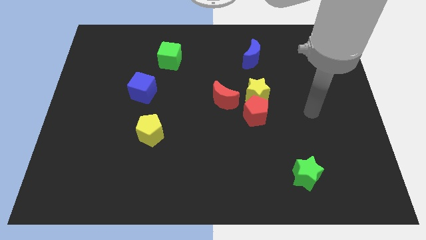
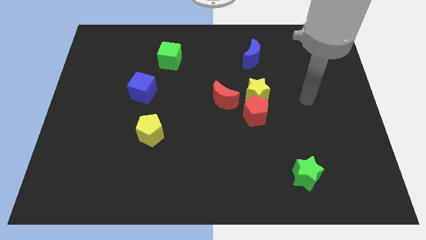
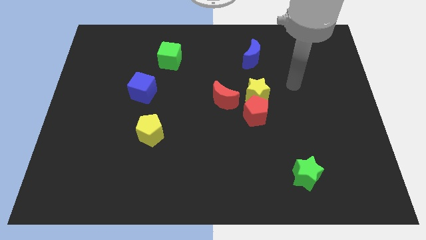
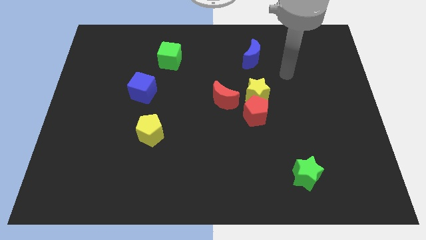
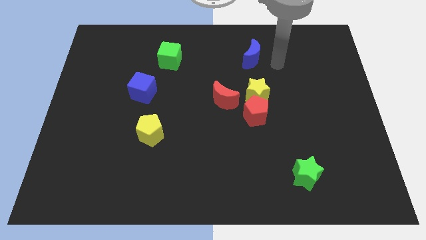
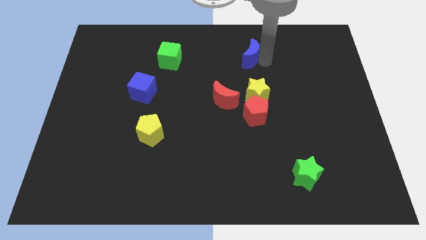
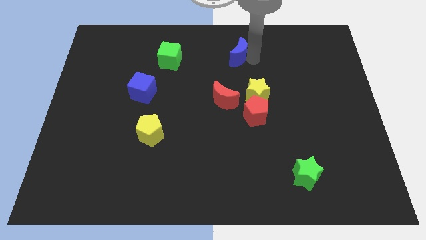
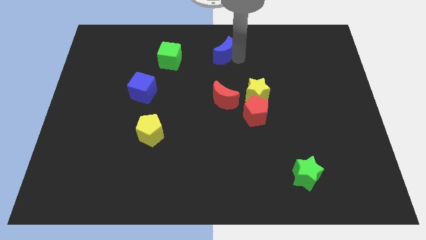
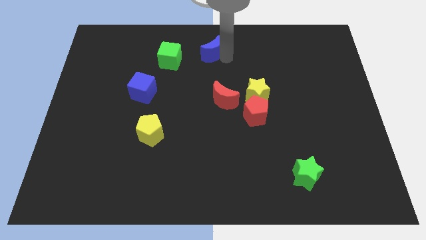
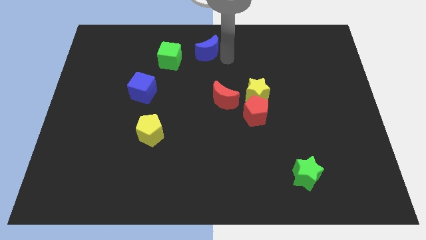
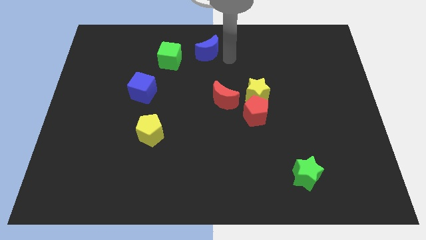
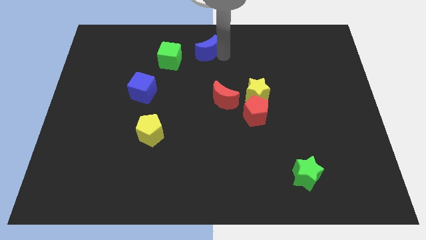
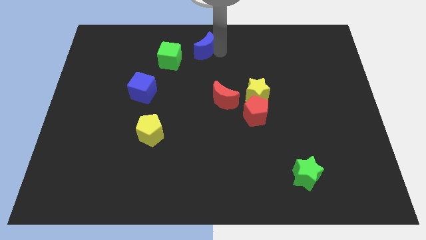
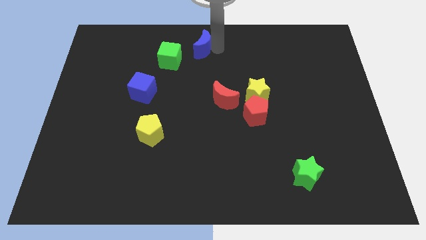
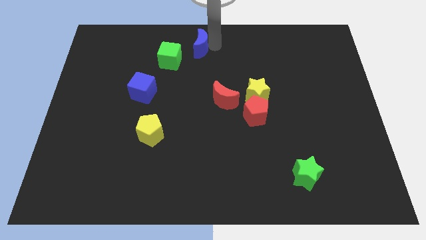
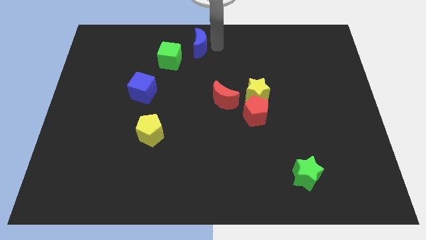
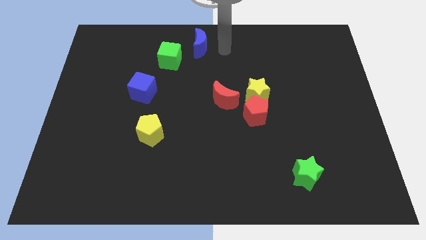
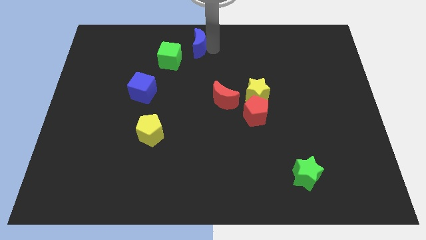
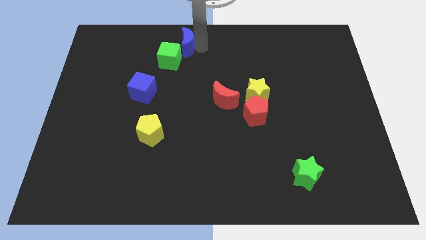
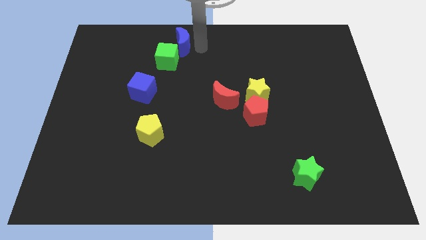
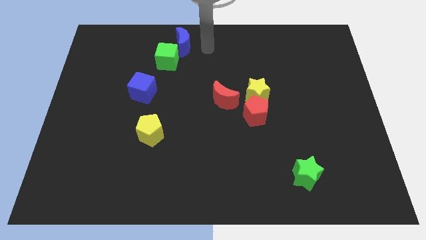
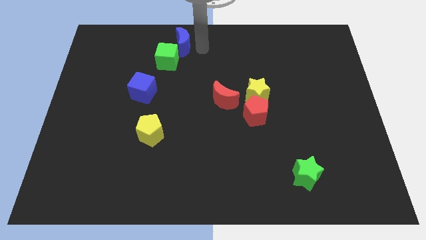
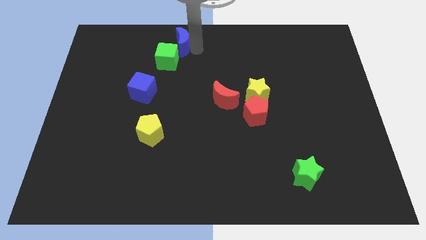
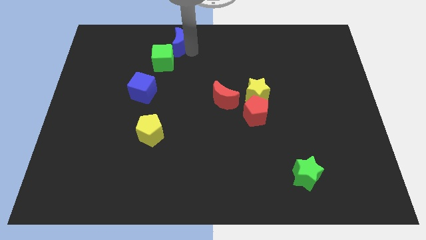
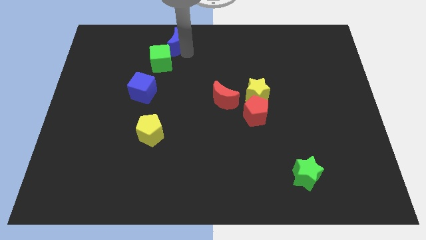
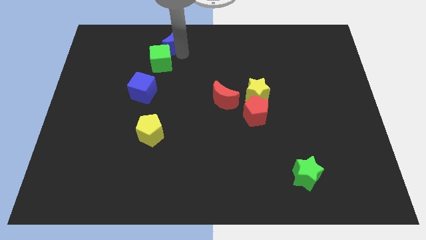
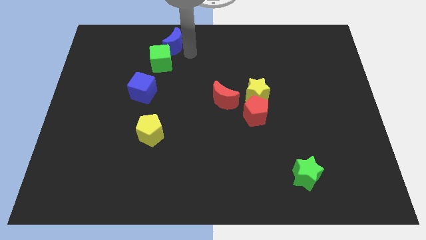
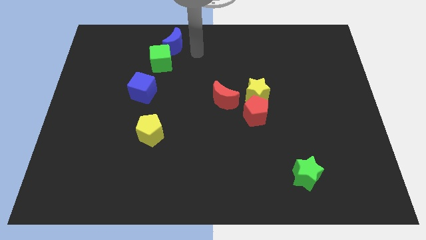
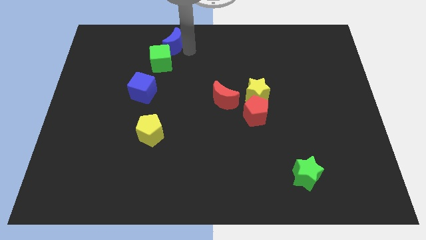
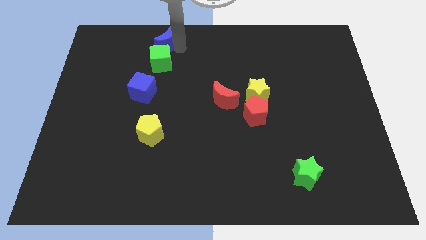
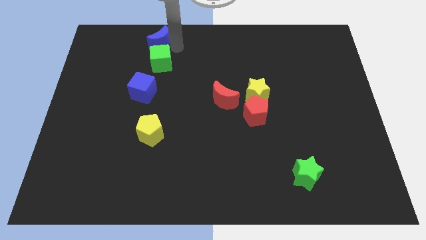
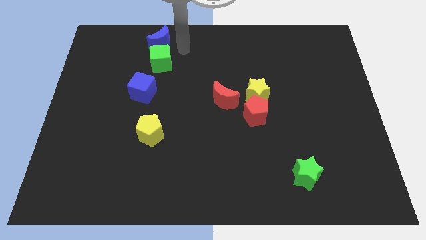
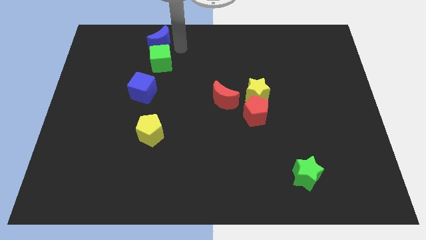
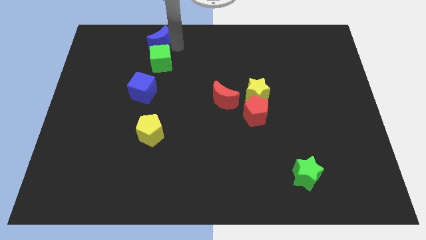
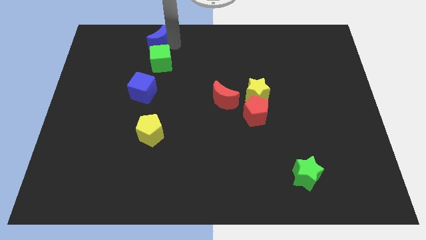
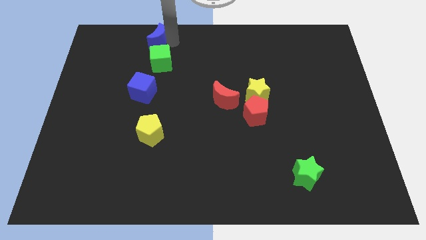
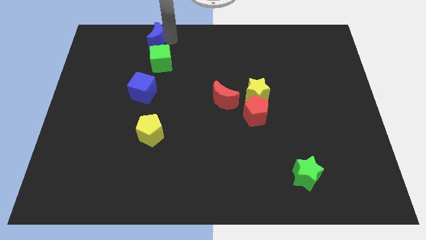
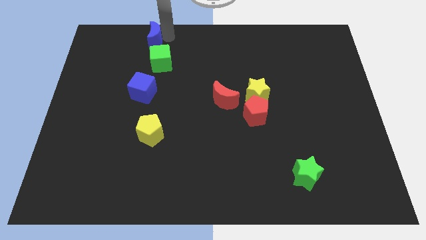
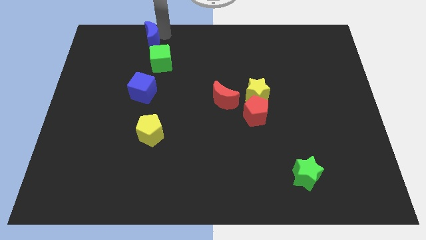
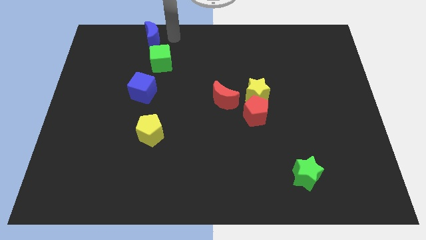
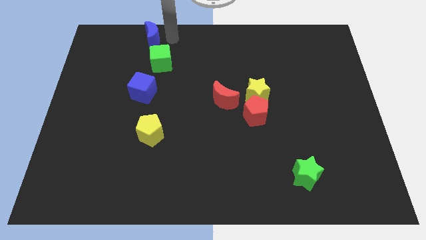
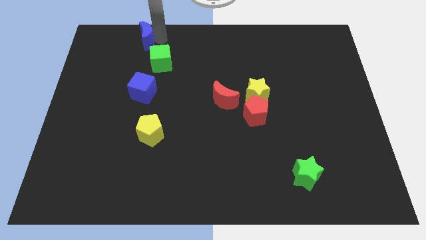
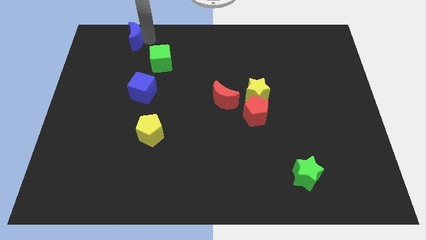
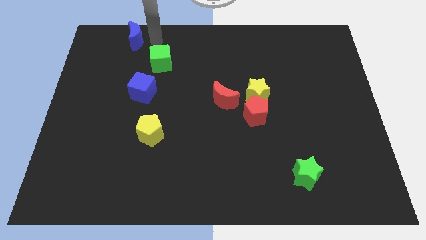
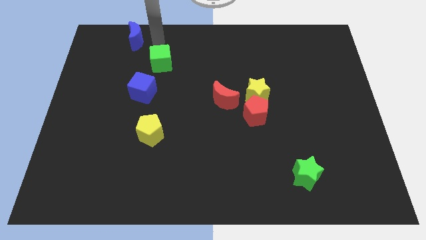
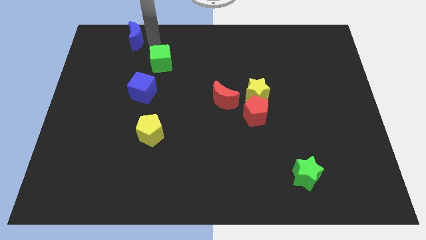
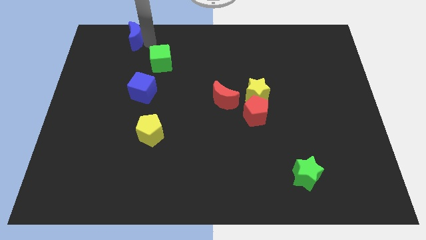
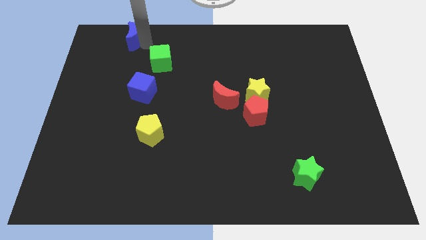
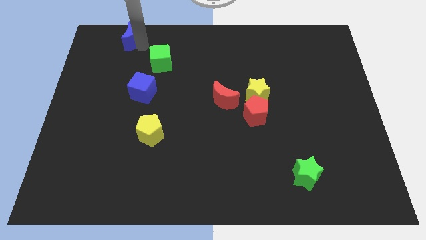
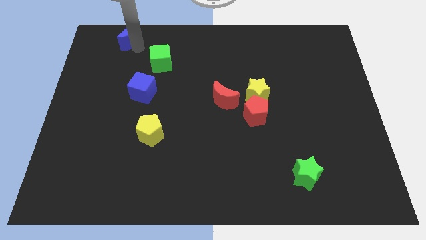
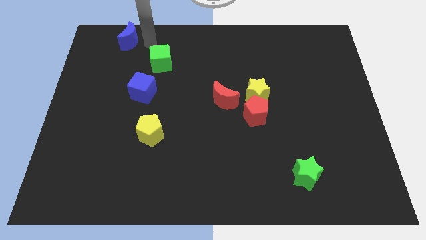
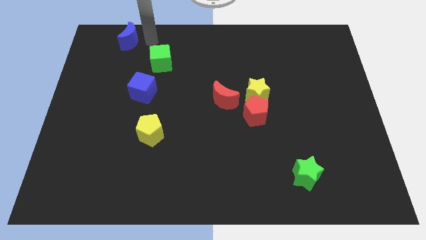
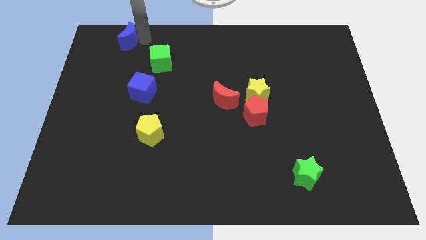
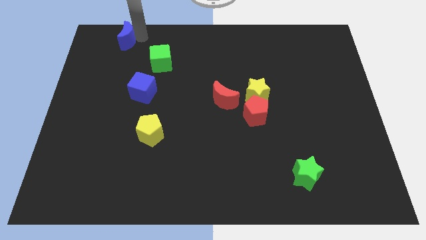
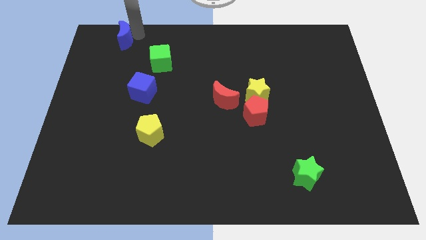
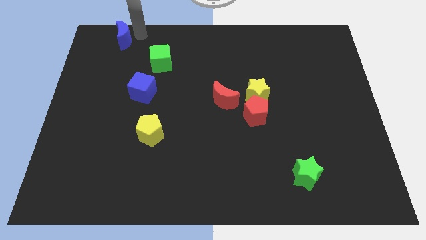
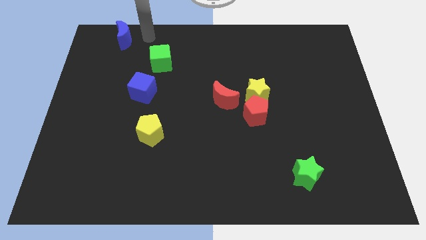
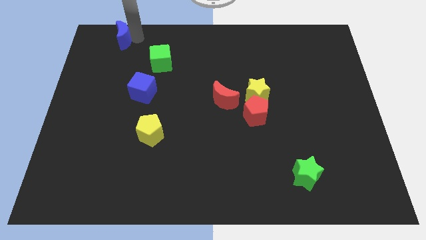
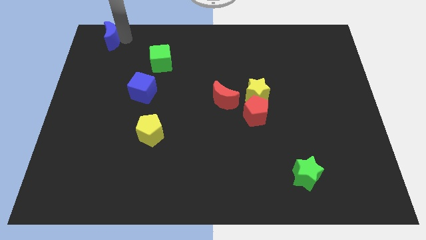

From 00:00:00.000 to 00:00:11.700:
push the blue moon to the top left

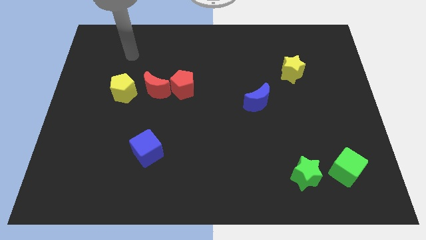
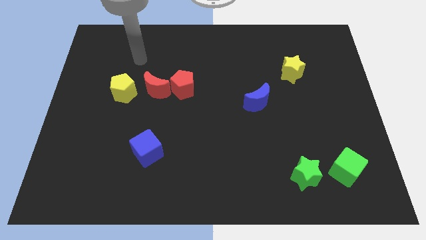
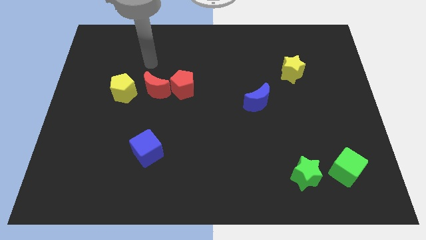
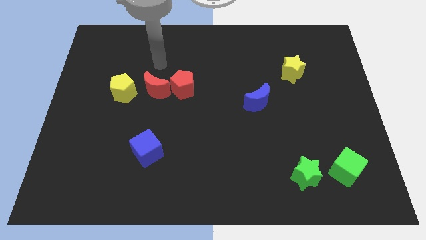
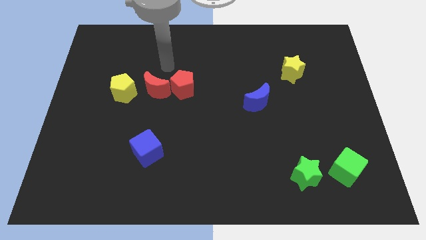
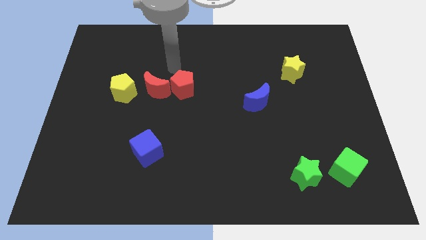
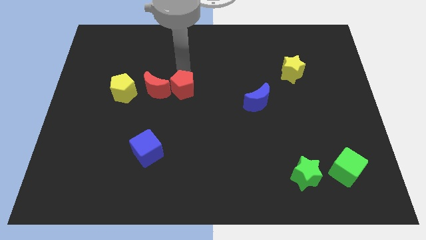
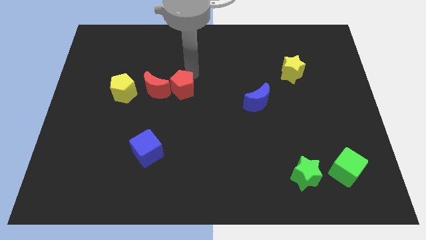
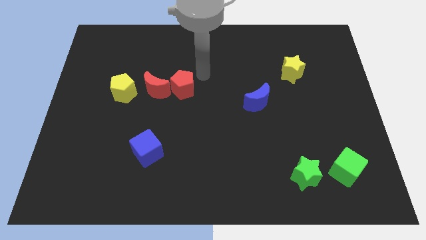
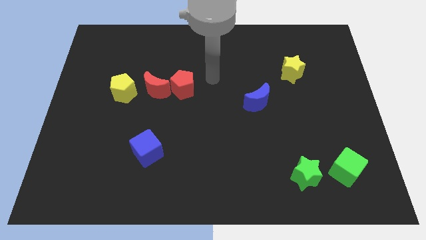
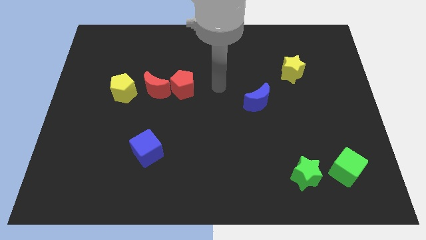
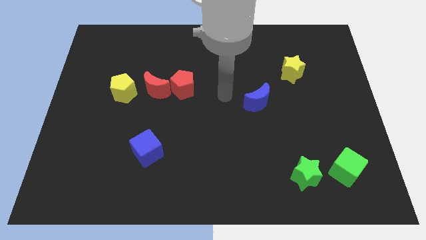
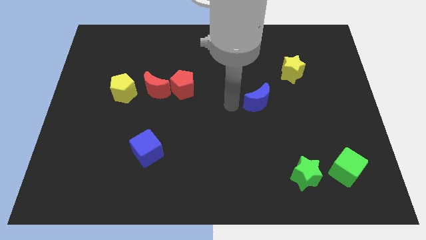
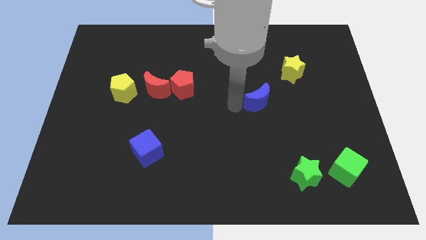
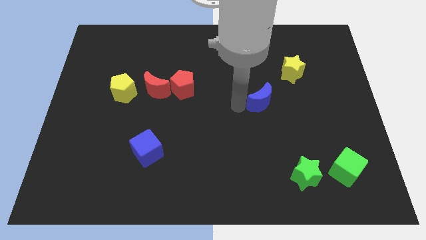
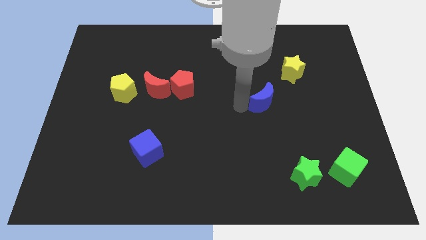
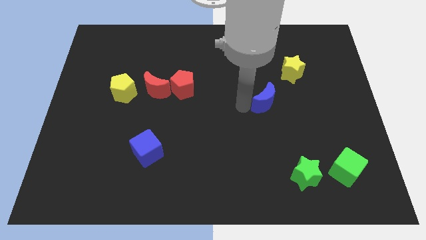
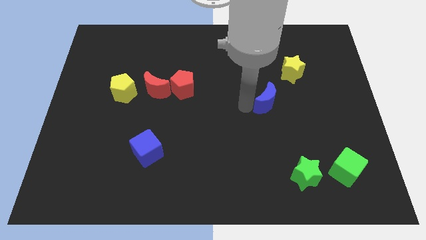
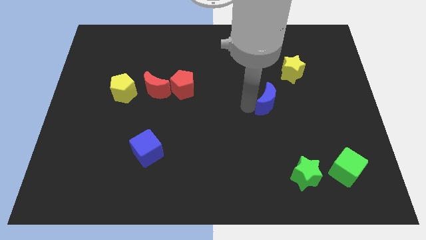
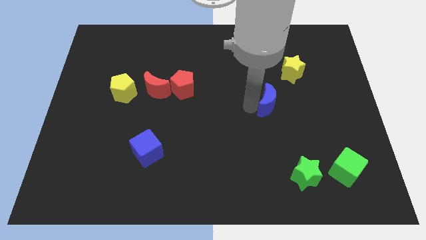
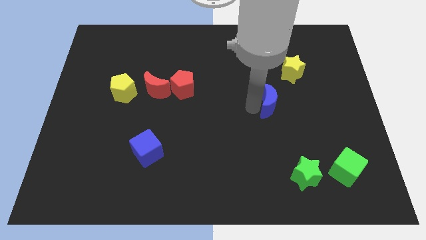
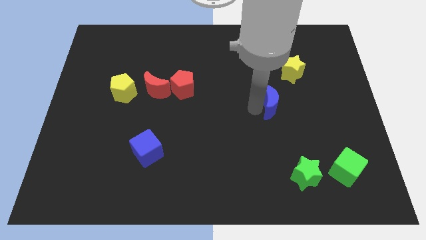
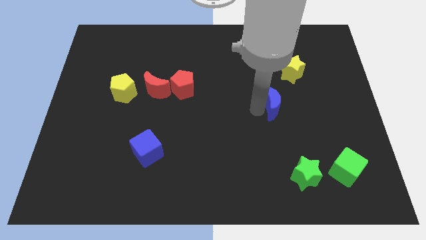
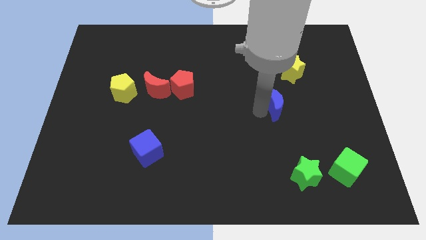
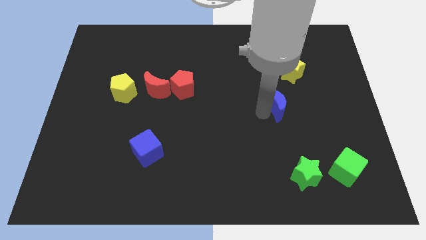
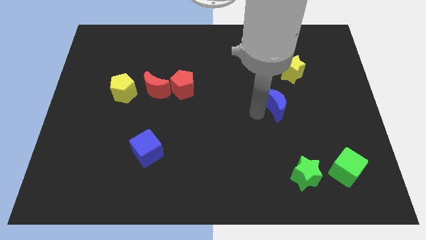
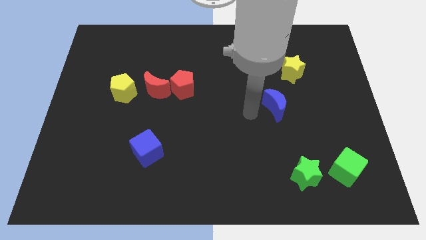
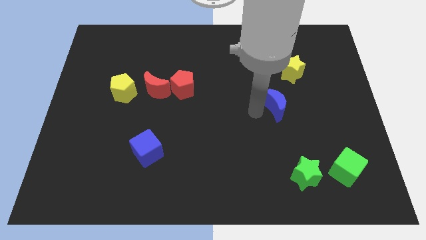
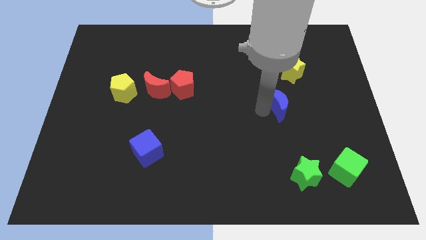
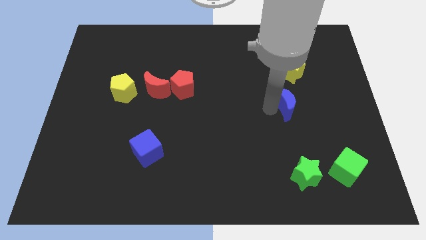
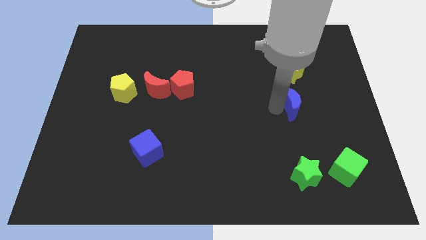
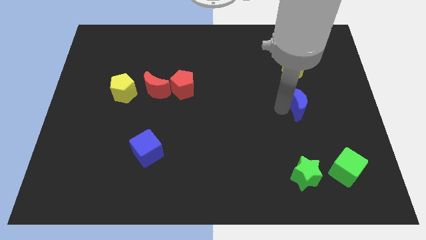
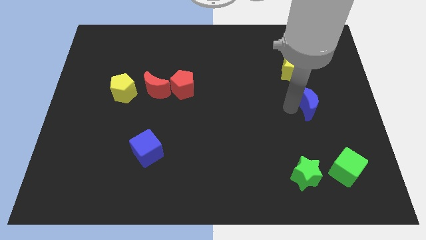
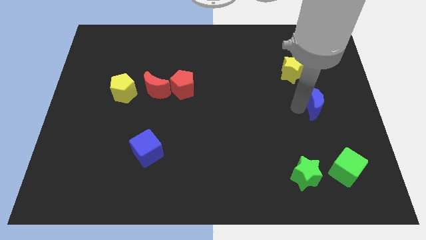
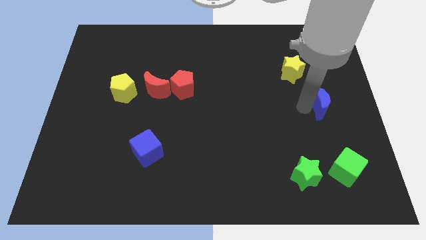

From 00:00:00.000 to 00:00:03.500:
move the blue moon to the center right
